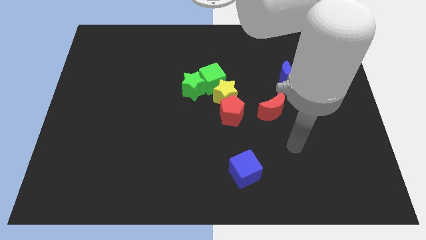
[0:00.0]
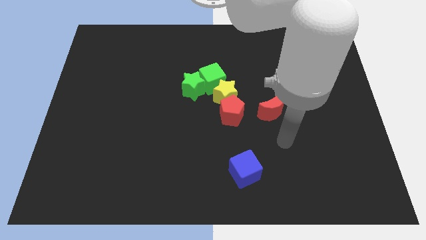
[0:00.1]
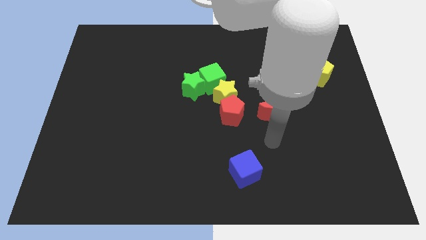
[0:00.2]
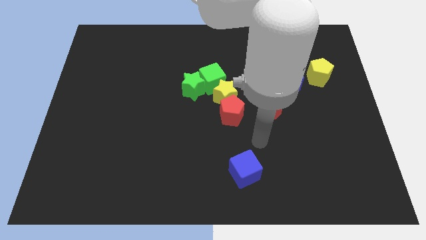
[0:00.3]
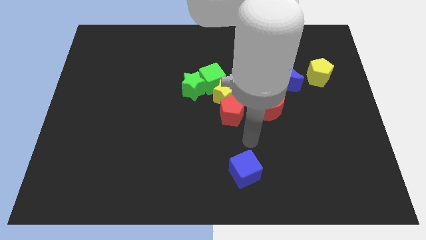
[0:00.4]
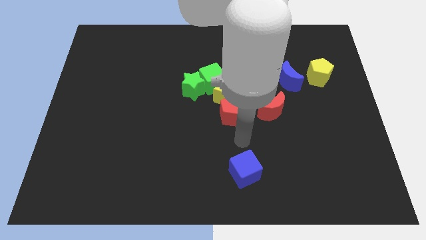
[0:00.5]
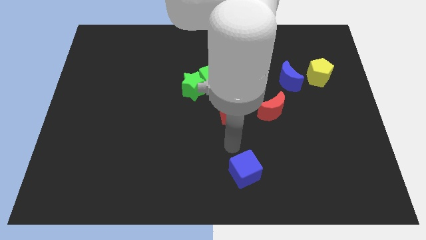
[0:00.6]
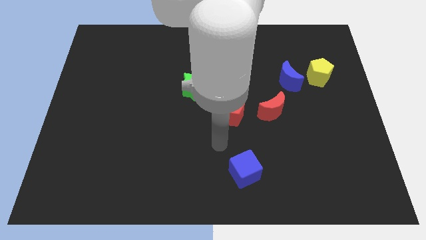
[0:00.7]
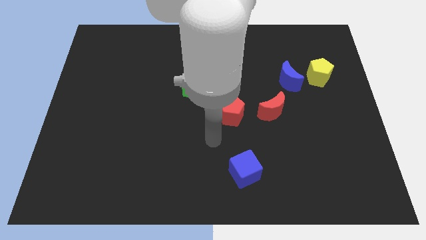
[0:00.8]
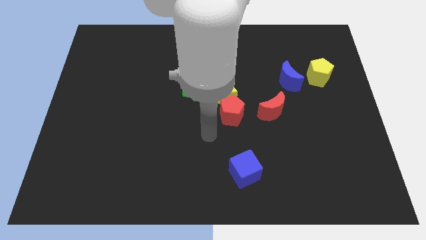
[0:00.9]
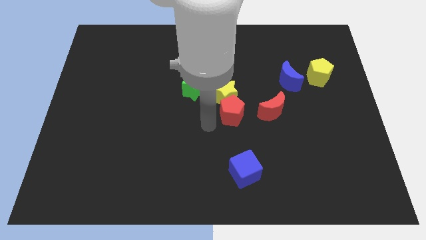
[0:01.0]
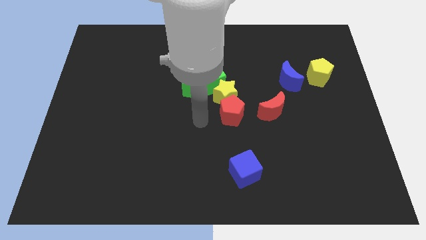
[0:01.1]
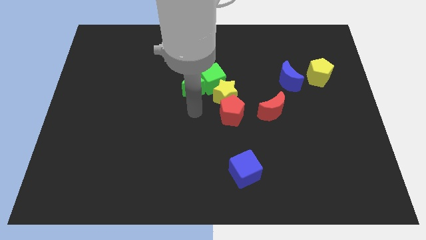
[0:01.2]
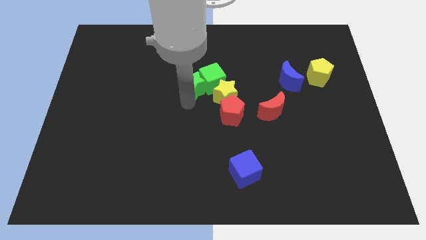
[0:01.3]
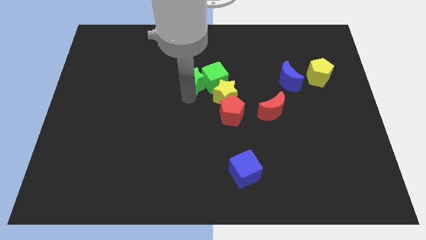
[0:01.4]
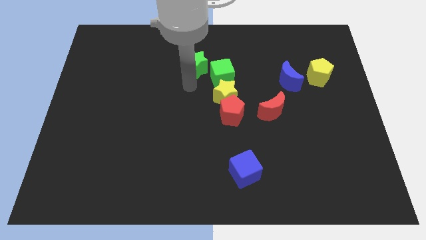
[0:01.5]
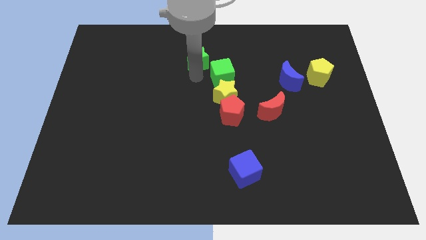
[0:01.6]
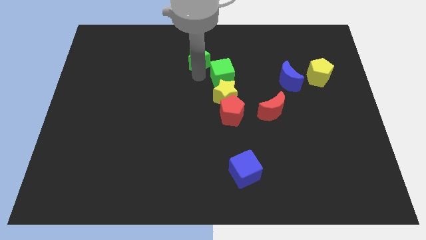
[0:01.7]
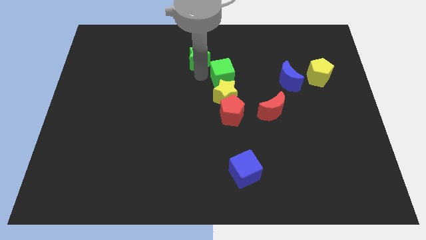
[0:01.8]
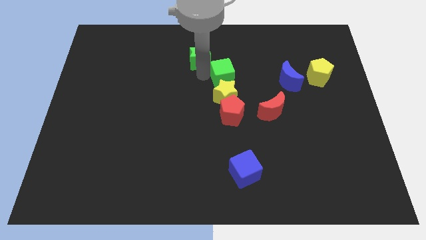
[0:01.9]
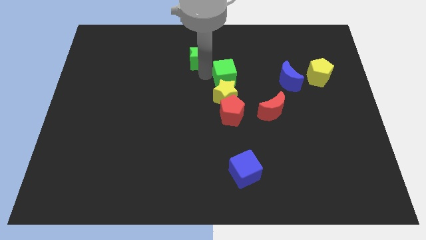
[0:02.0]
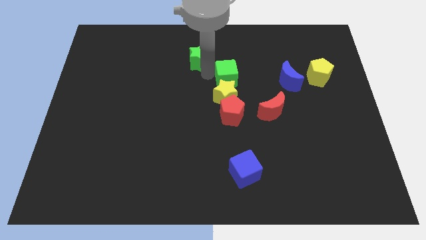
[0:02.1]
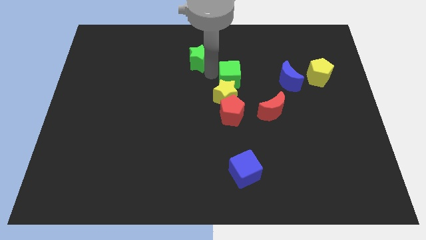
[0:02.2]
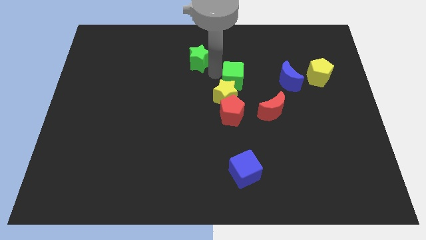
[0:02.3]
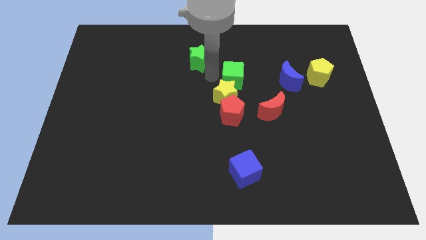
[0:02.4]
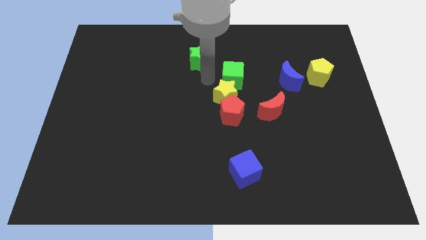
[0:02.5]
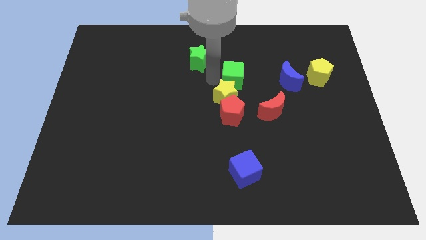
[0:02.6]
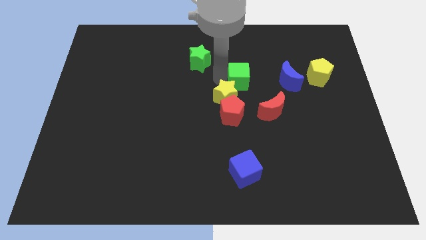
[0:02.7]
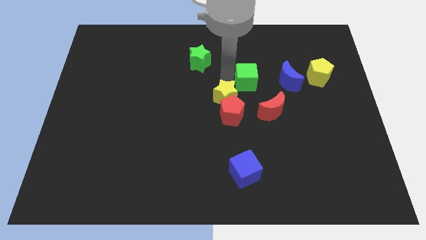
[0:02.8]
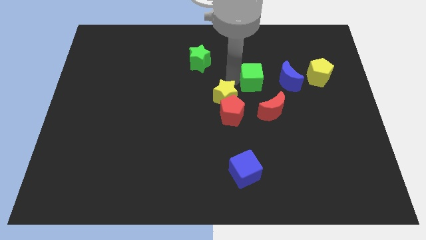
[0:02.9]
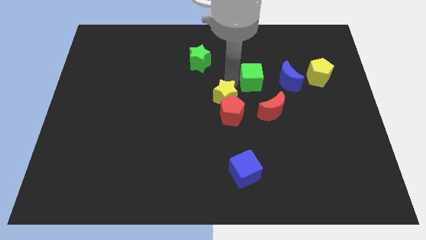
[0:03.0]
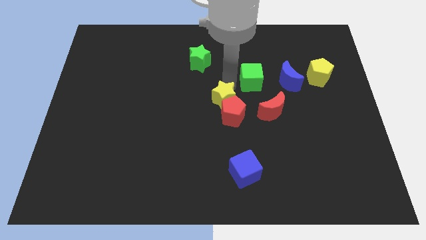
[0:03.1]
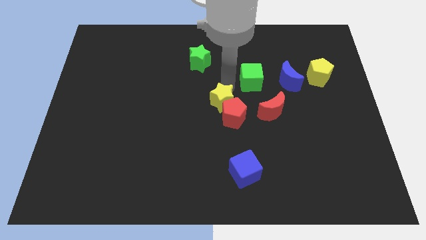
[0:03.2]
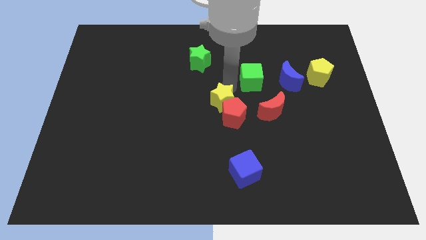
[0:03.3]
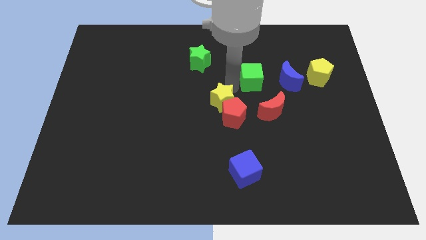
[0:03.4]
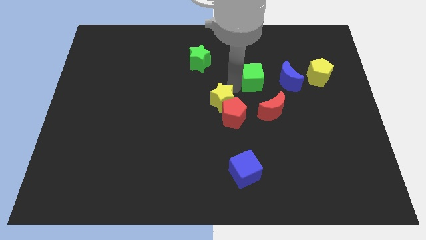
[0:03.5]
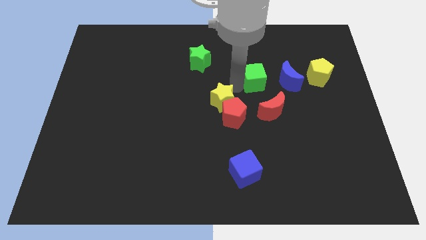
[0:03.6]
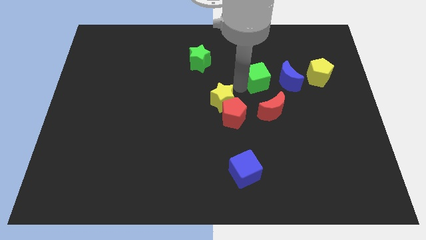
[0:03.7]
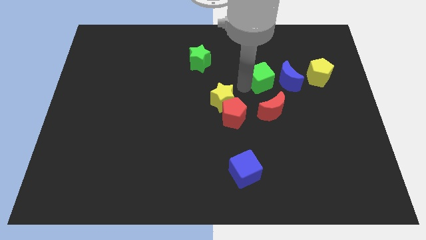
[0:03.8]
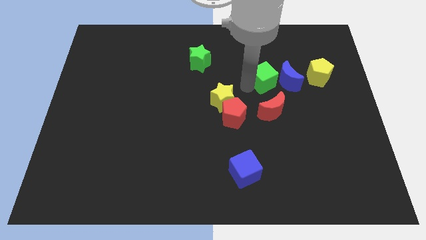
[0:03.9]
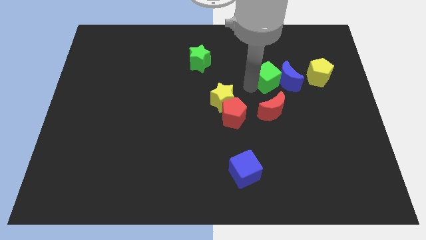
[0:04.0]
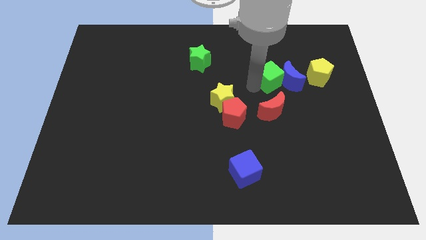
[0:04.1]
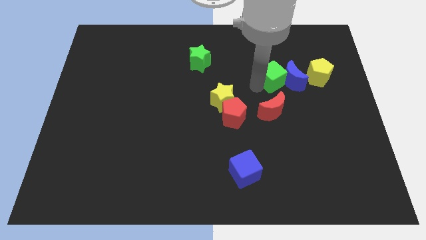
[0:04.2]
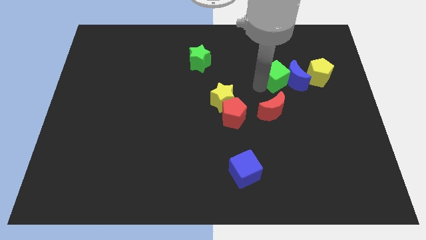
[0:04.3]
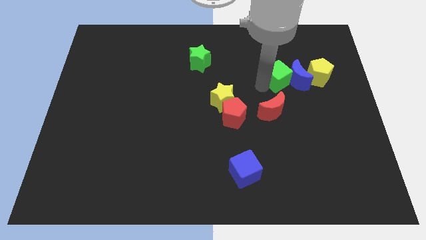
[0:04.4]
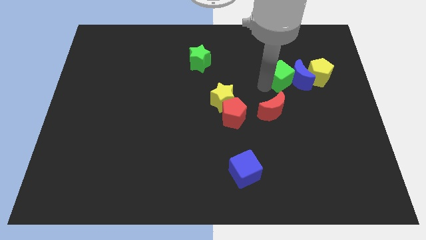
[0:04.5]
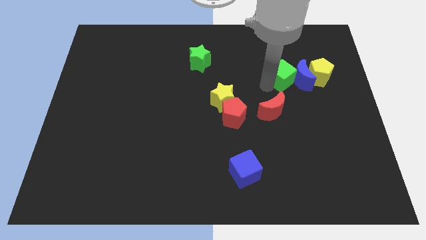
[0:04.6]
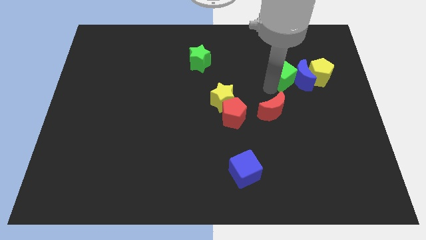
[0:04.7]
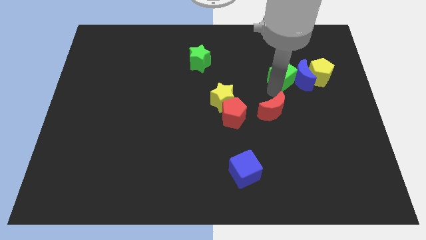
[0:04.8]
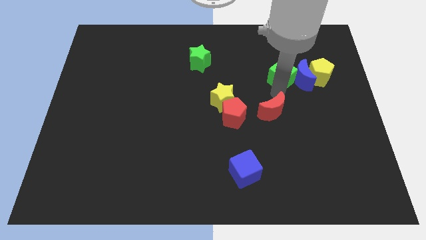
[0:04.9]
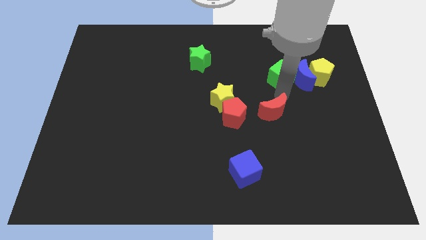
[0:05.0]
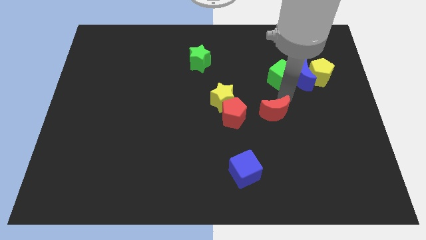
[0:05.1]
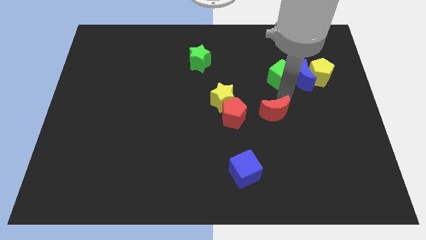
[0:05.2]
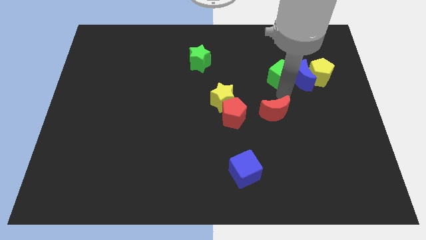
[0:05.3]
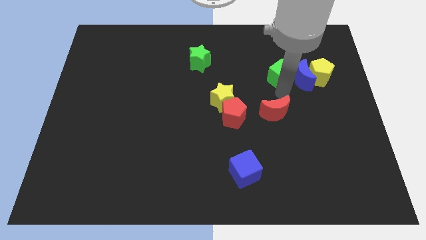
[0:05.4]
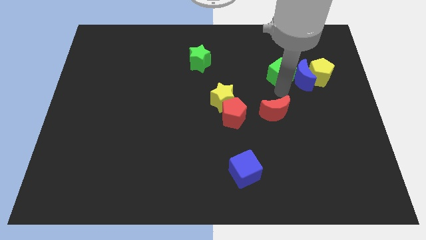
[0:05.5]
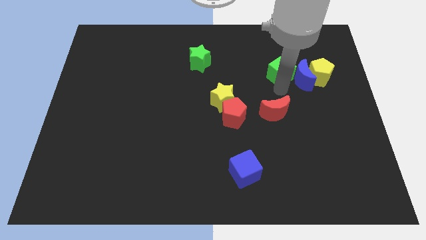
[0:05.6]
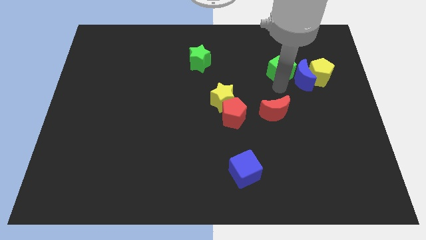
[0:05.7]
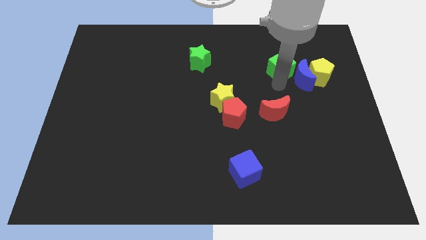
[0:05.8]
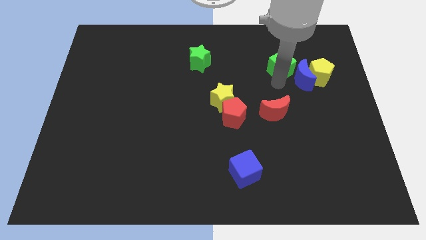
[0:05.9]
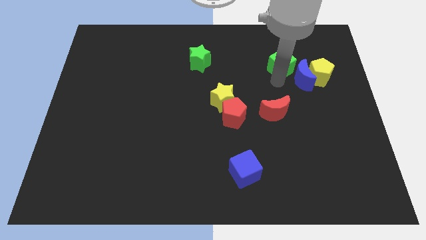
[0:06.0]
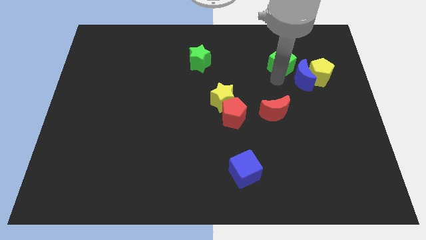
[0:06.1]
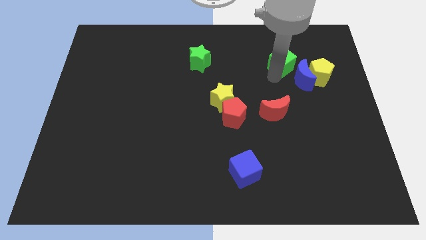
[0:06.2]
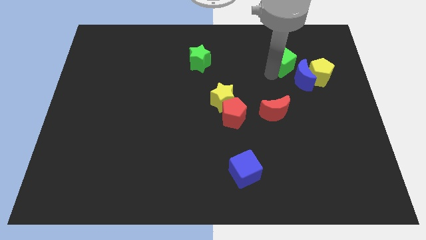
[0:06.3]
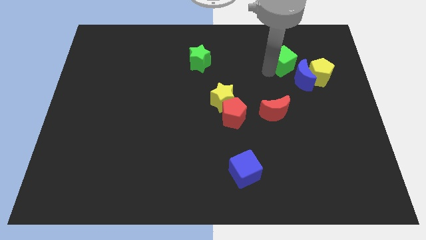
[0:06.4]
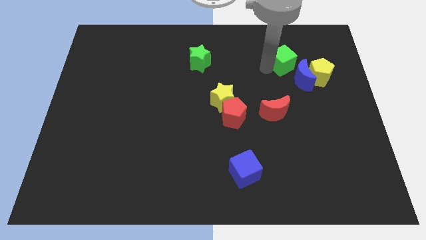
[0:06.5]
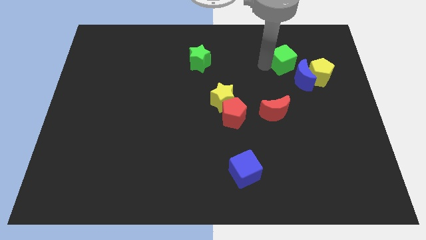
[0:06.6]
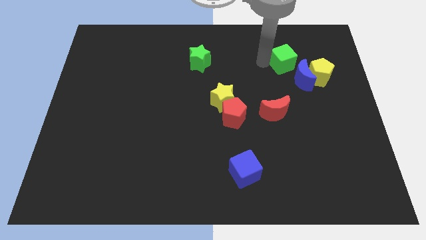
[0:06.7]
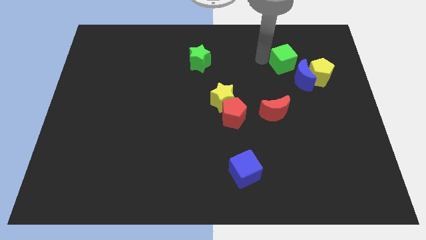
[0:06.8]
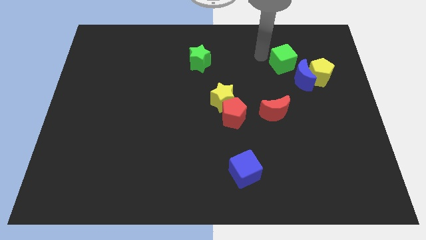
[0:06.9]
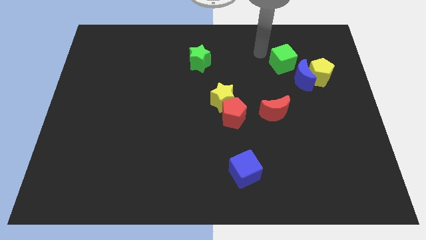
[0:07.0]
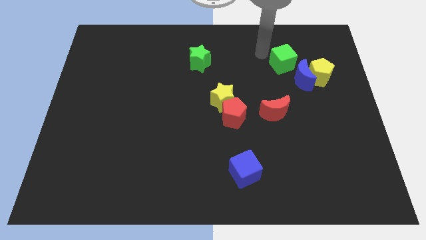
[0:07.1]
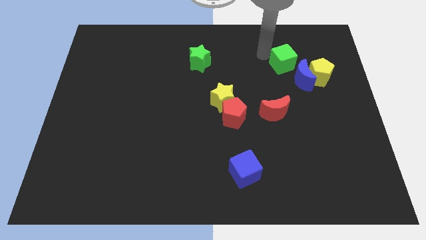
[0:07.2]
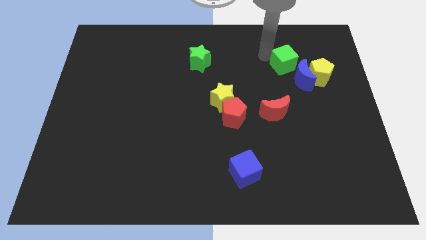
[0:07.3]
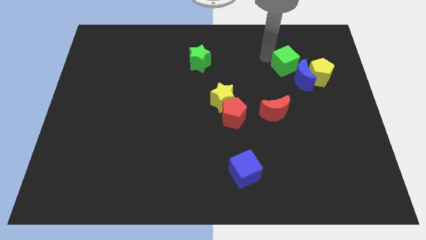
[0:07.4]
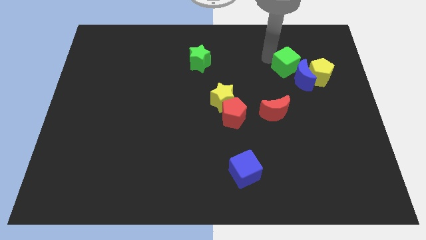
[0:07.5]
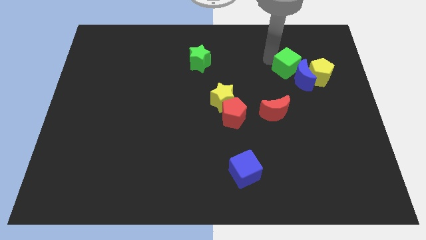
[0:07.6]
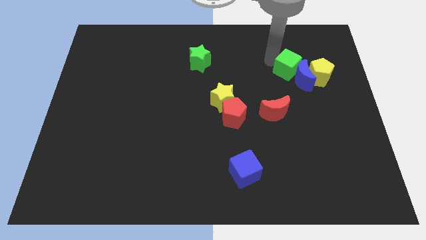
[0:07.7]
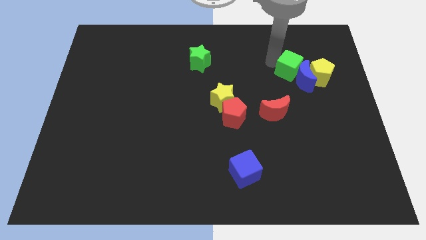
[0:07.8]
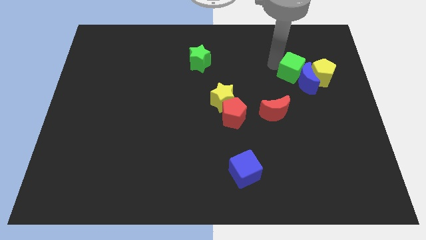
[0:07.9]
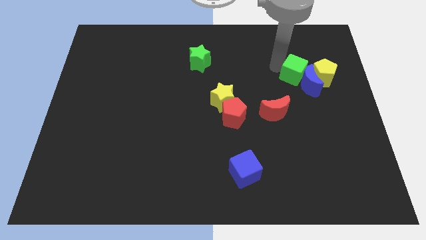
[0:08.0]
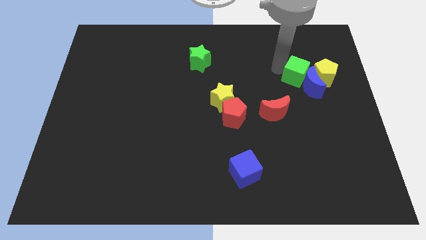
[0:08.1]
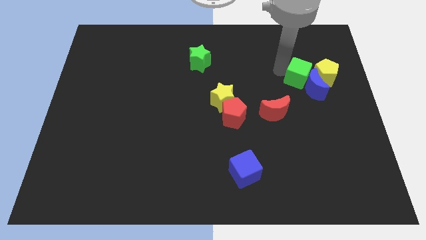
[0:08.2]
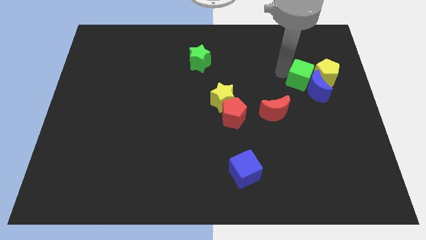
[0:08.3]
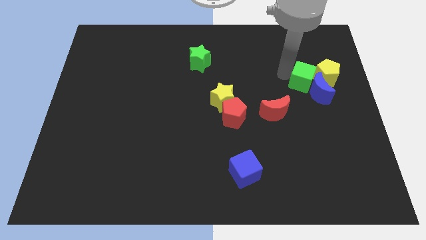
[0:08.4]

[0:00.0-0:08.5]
move the green cube towards the yellow pentagon
